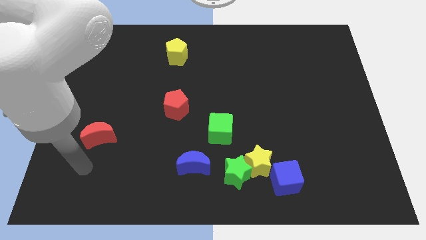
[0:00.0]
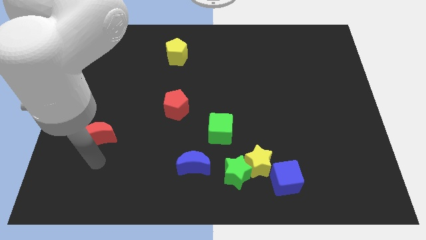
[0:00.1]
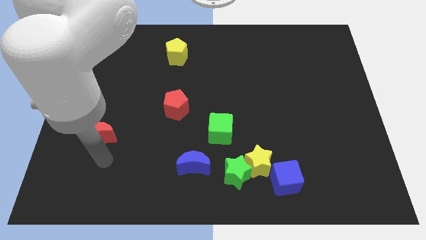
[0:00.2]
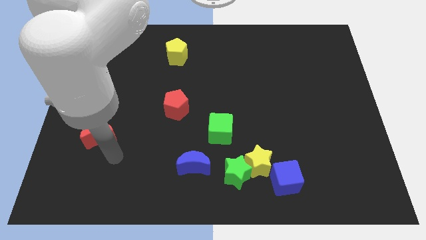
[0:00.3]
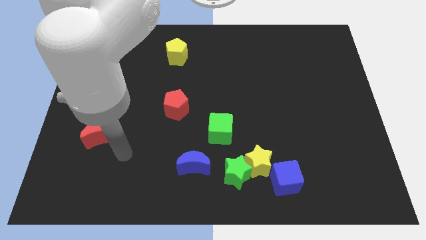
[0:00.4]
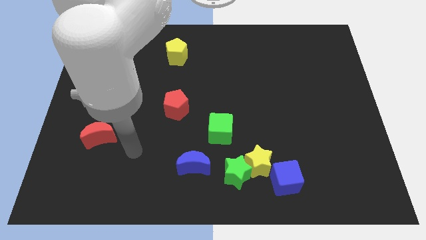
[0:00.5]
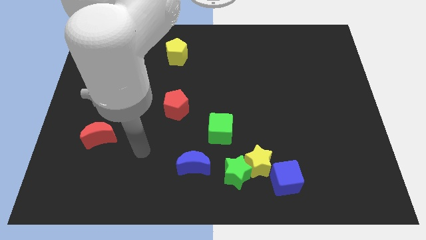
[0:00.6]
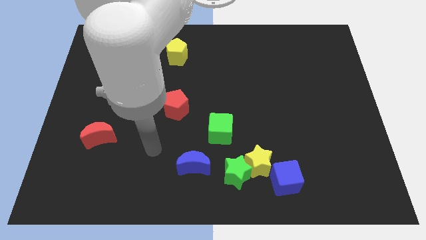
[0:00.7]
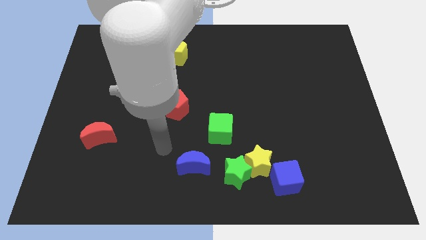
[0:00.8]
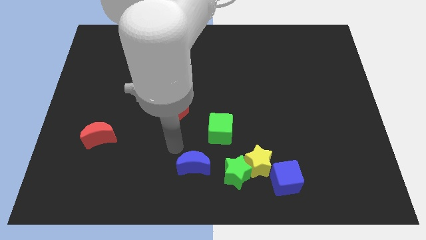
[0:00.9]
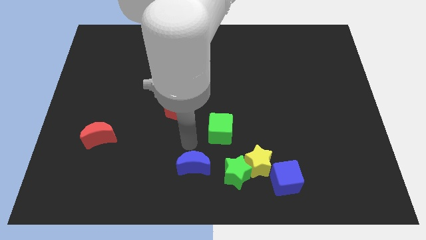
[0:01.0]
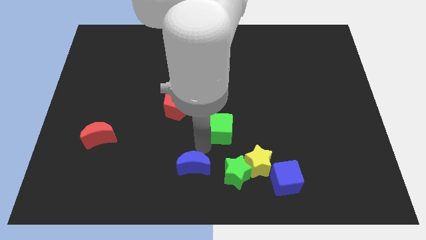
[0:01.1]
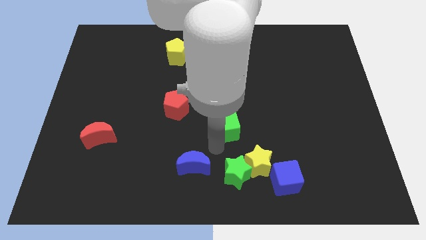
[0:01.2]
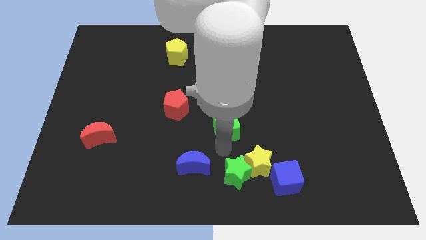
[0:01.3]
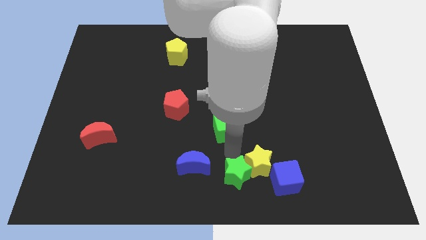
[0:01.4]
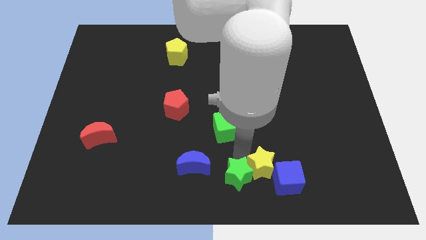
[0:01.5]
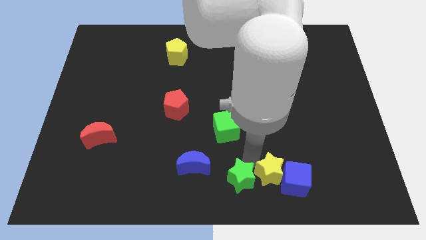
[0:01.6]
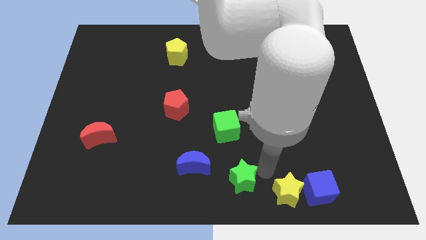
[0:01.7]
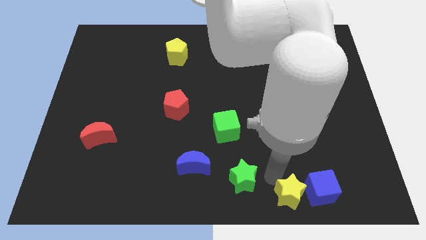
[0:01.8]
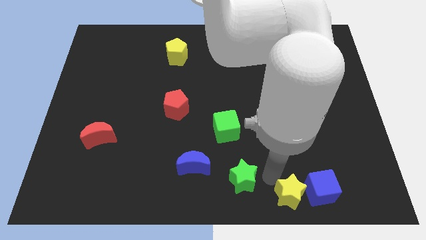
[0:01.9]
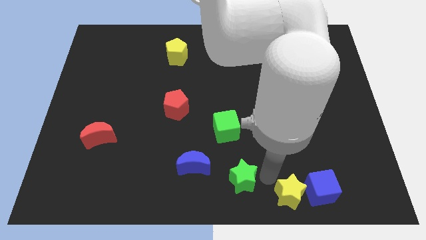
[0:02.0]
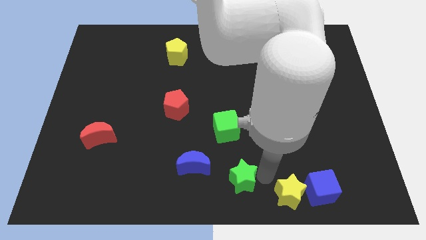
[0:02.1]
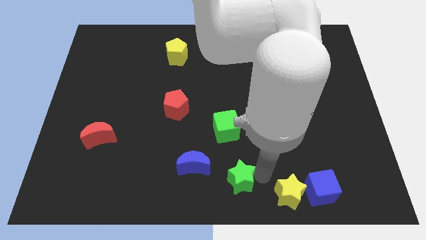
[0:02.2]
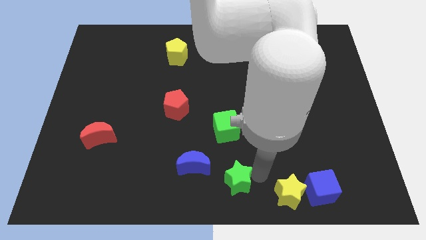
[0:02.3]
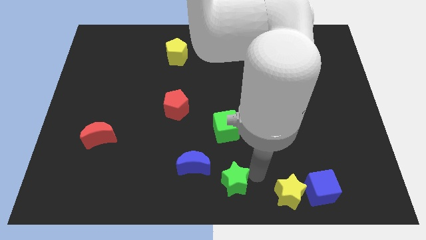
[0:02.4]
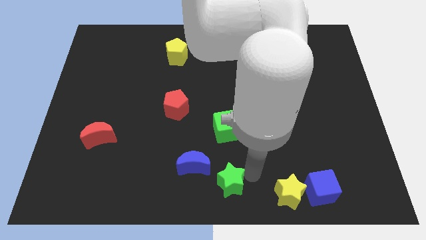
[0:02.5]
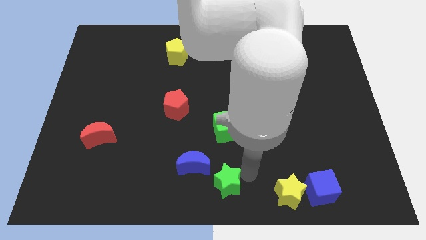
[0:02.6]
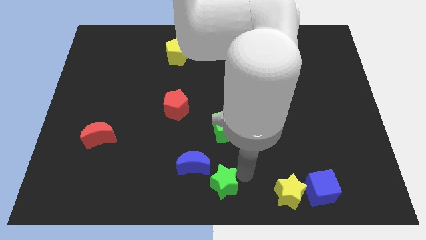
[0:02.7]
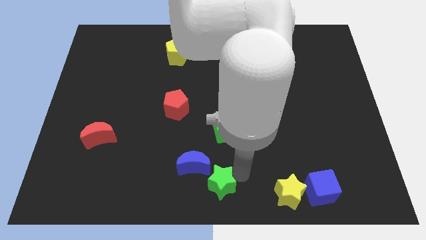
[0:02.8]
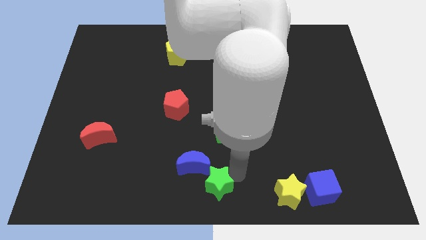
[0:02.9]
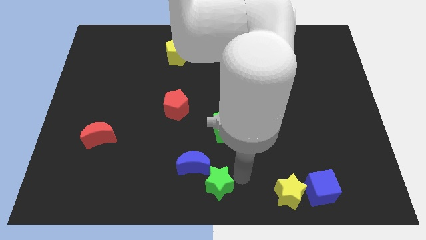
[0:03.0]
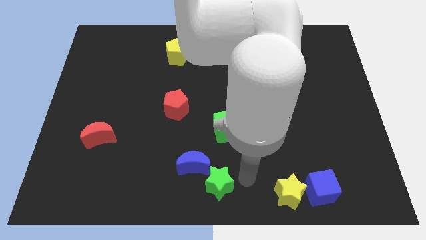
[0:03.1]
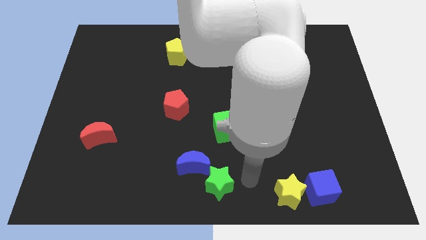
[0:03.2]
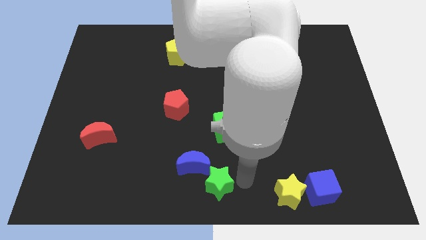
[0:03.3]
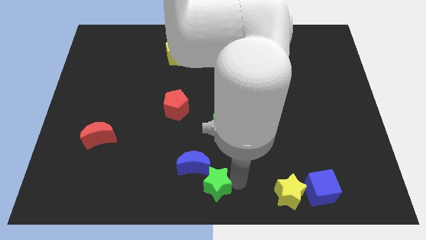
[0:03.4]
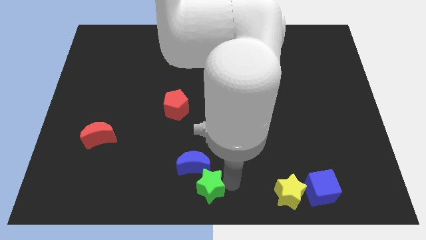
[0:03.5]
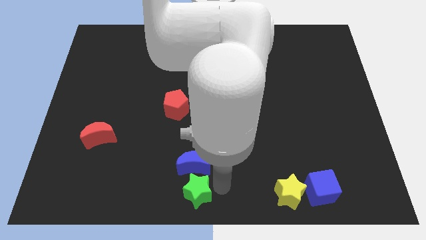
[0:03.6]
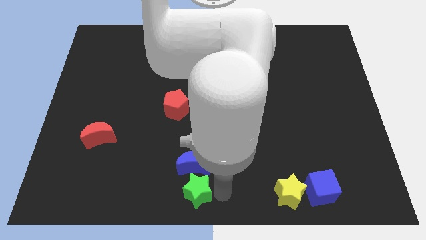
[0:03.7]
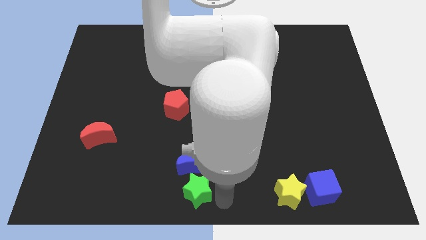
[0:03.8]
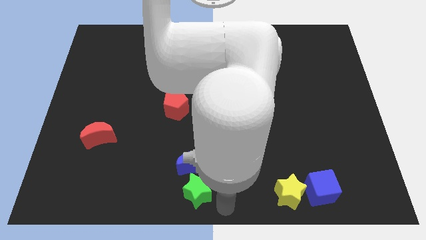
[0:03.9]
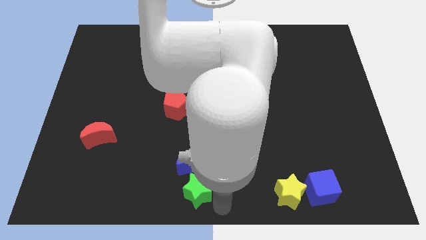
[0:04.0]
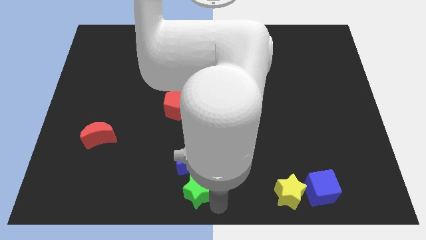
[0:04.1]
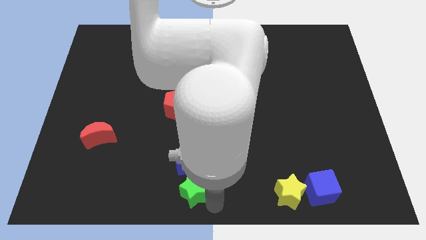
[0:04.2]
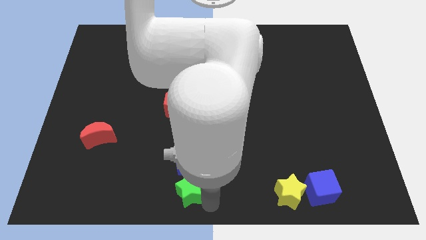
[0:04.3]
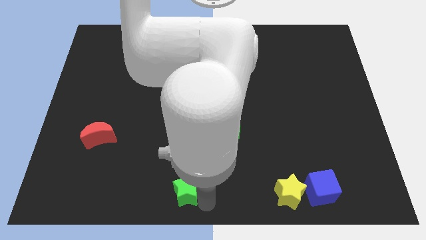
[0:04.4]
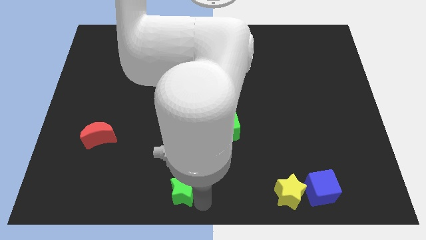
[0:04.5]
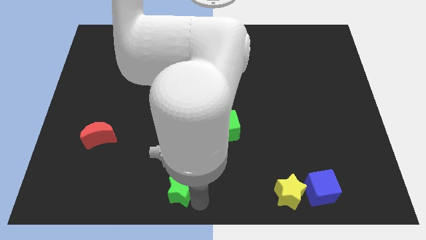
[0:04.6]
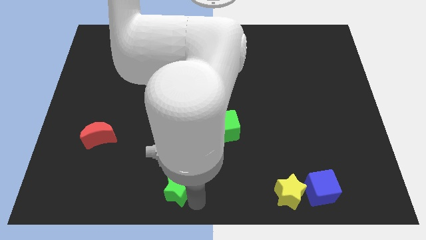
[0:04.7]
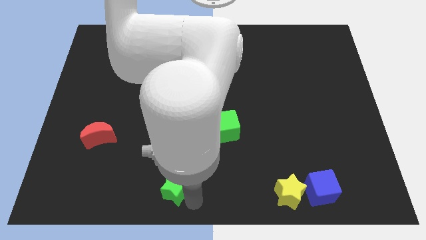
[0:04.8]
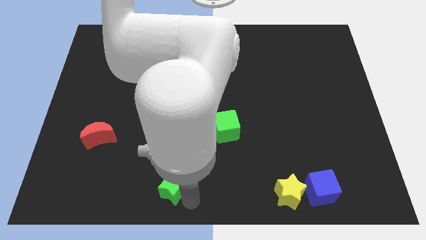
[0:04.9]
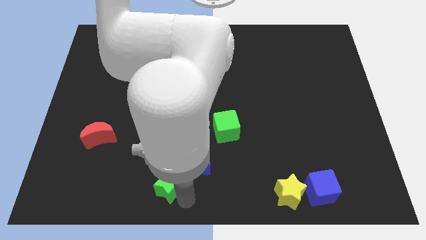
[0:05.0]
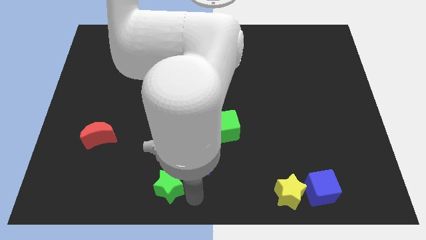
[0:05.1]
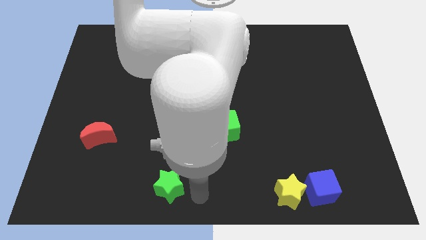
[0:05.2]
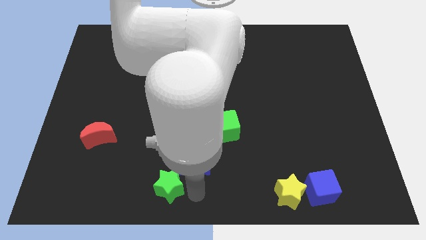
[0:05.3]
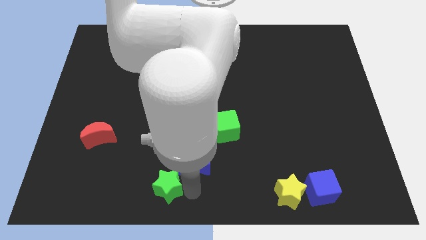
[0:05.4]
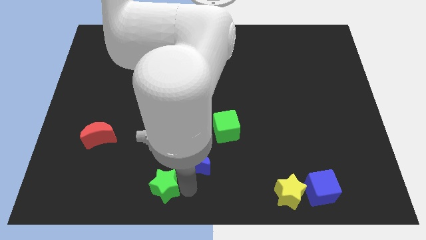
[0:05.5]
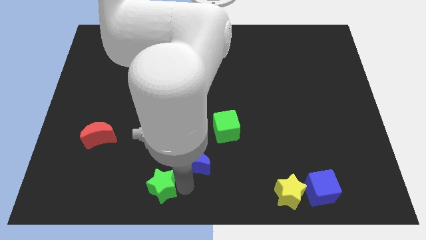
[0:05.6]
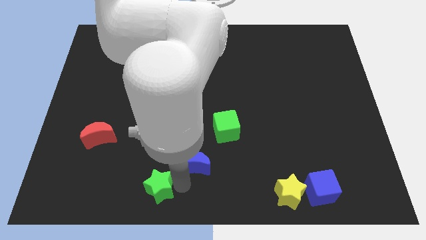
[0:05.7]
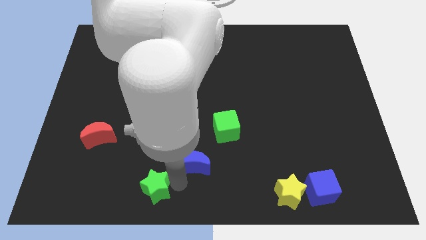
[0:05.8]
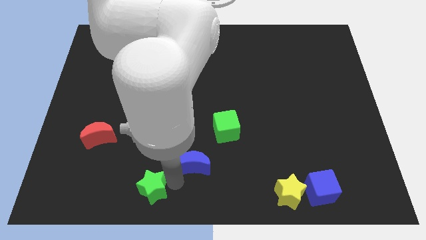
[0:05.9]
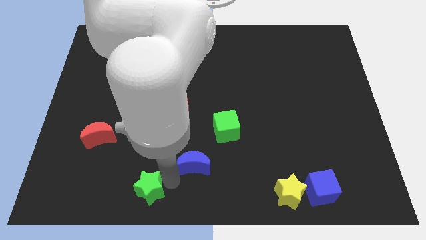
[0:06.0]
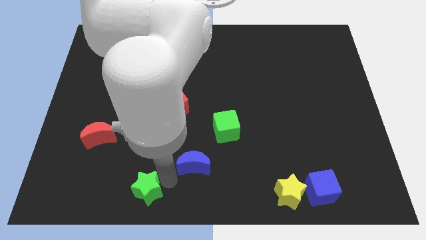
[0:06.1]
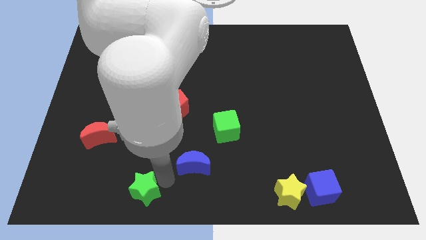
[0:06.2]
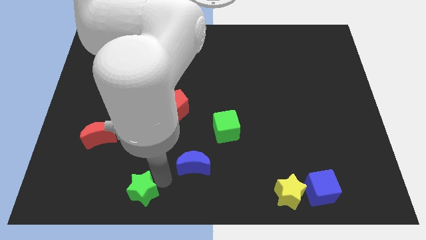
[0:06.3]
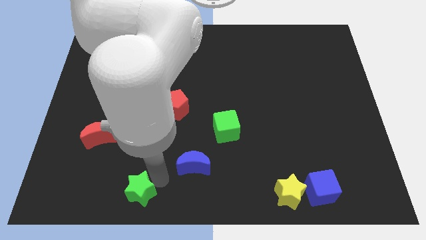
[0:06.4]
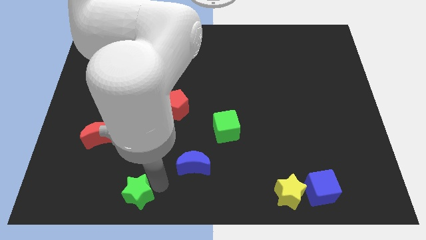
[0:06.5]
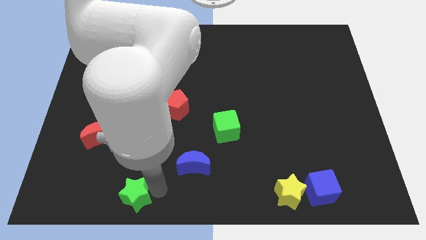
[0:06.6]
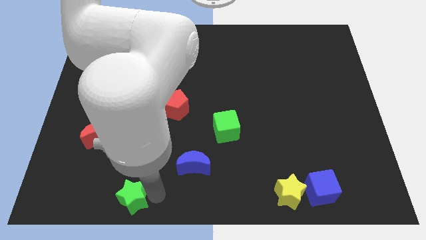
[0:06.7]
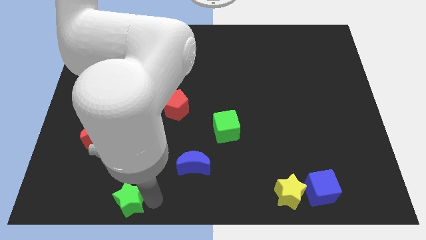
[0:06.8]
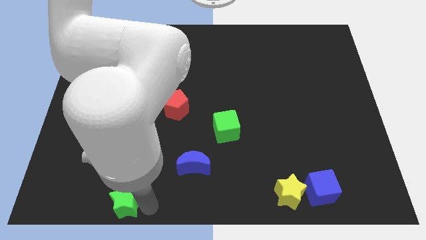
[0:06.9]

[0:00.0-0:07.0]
move the green star to the left

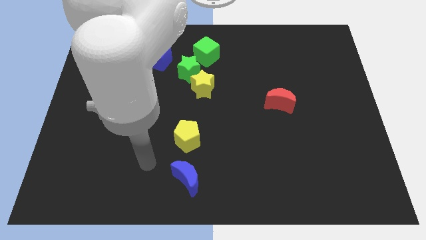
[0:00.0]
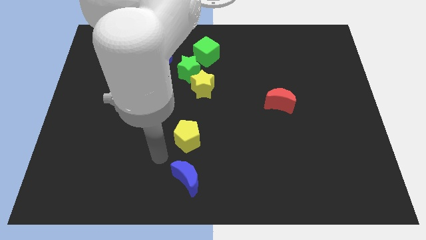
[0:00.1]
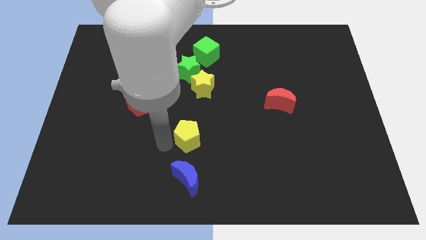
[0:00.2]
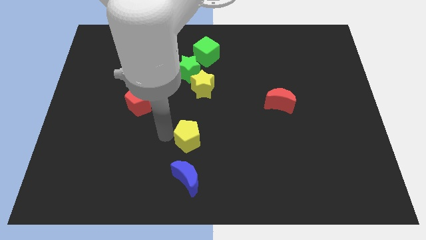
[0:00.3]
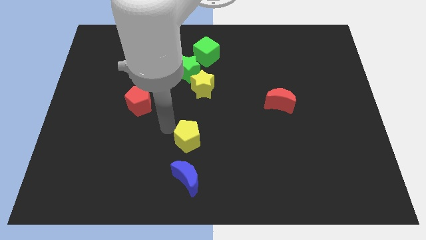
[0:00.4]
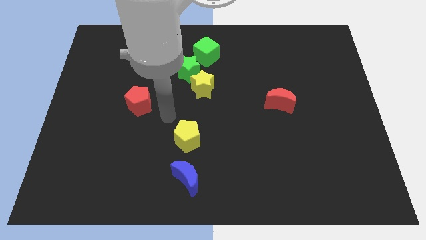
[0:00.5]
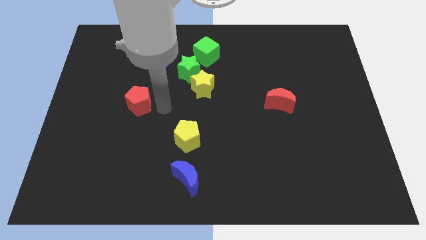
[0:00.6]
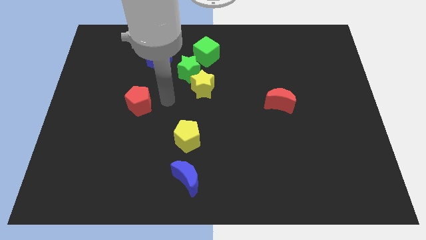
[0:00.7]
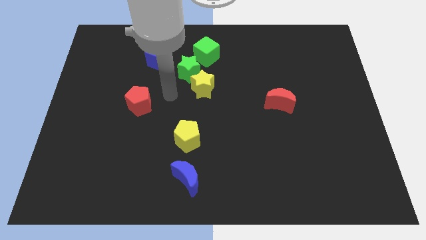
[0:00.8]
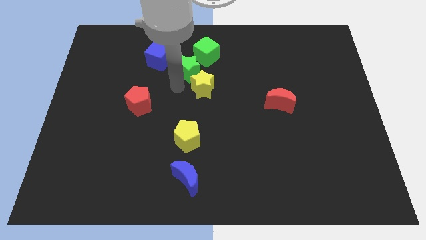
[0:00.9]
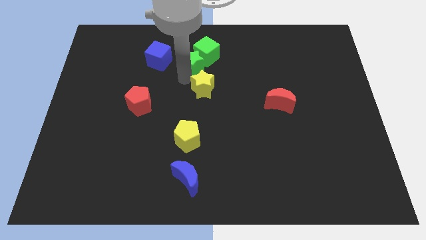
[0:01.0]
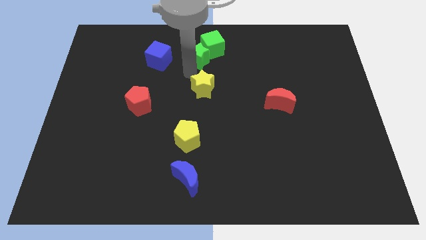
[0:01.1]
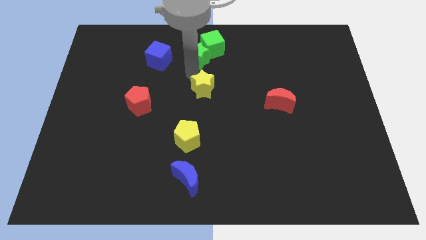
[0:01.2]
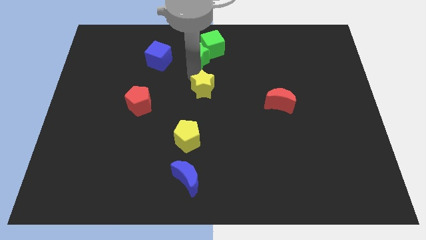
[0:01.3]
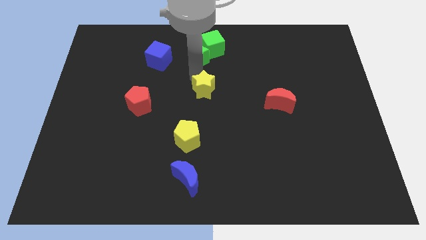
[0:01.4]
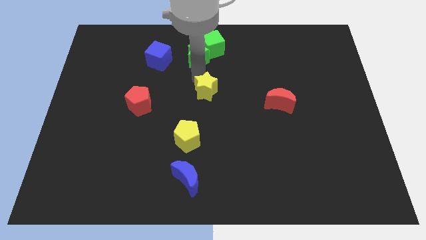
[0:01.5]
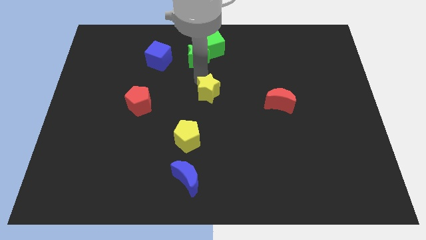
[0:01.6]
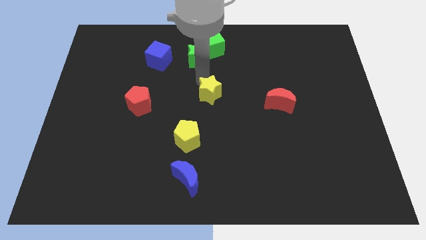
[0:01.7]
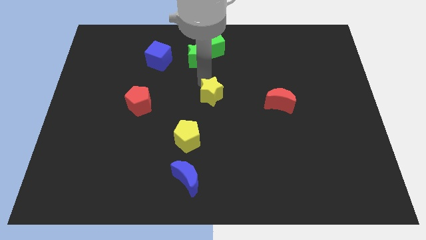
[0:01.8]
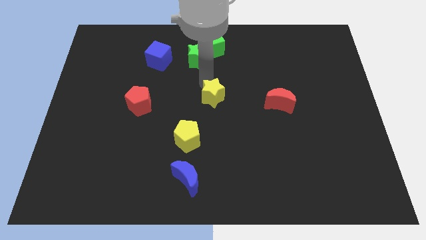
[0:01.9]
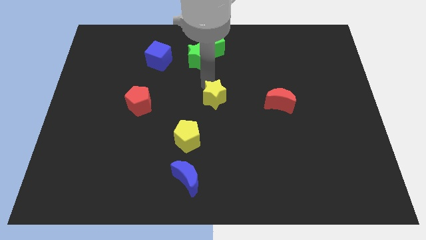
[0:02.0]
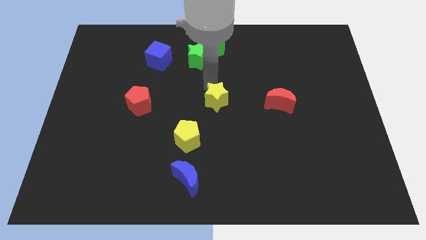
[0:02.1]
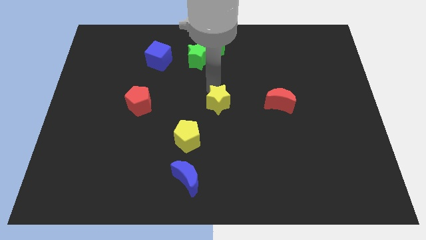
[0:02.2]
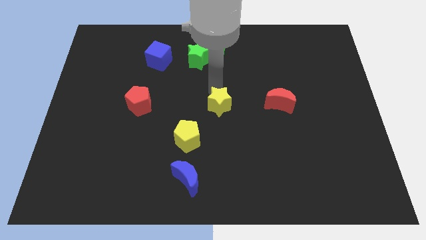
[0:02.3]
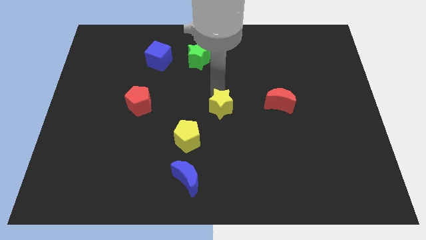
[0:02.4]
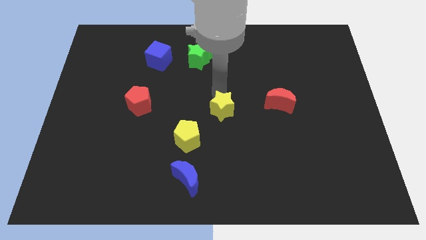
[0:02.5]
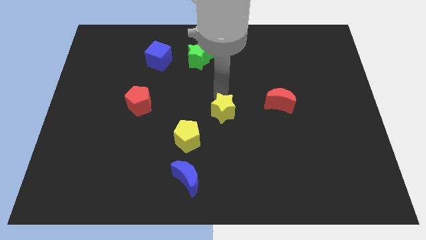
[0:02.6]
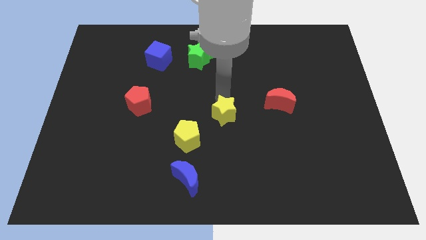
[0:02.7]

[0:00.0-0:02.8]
slide the yellow star a little bit downwards
